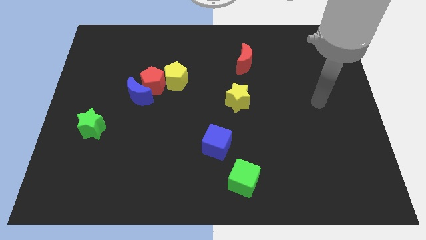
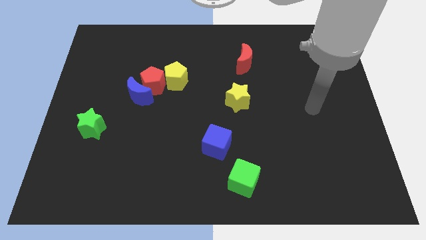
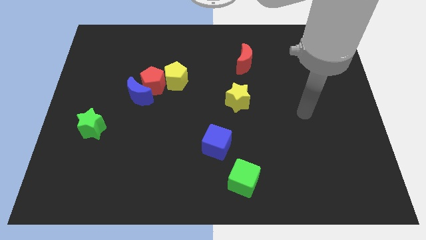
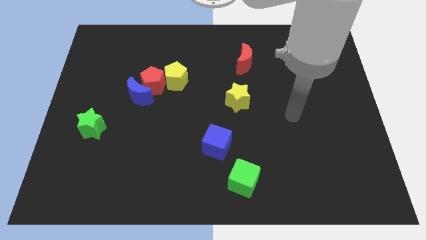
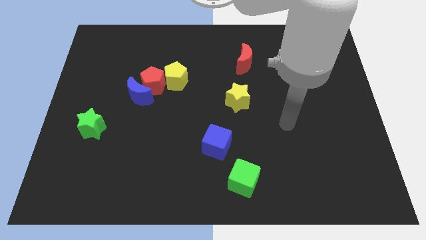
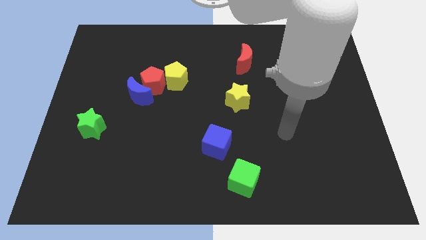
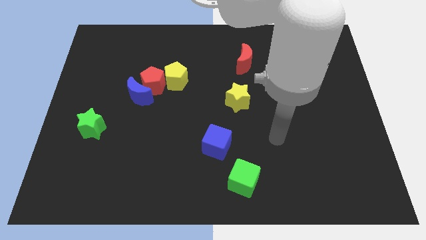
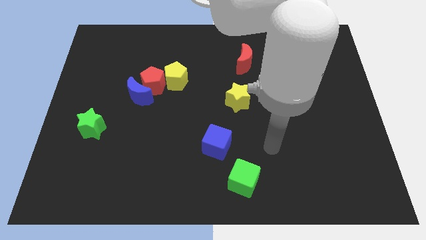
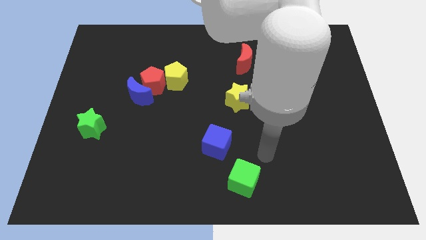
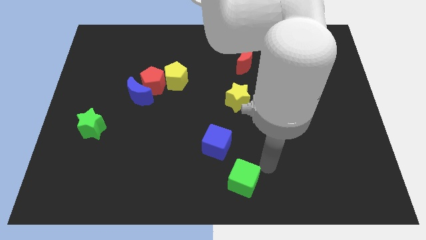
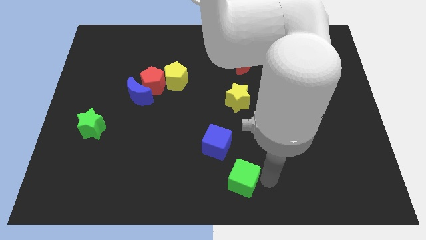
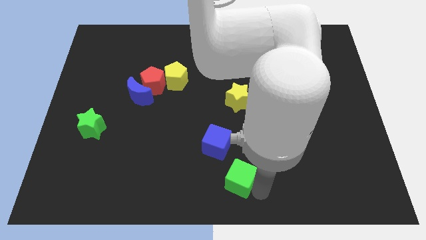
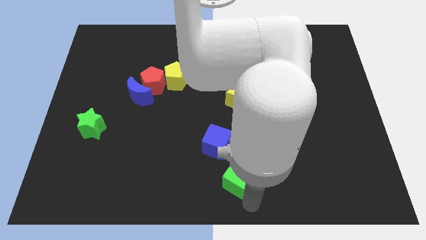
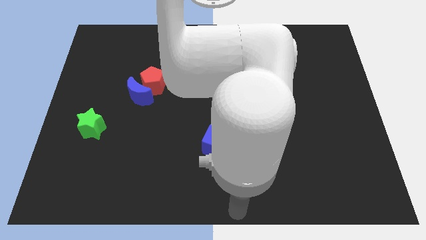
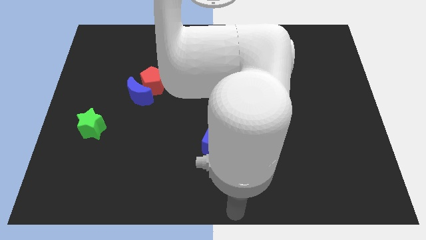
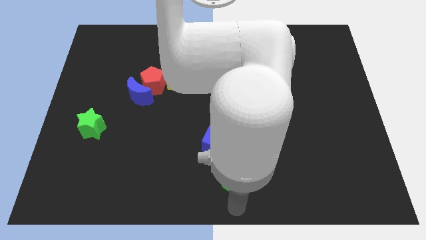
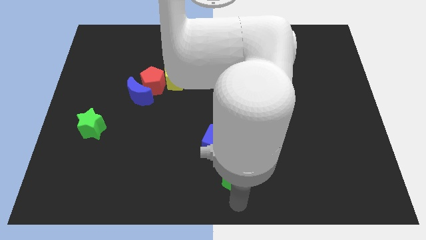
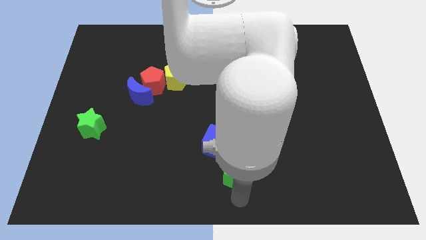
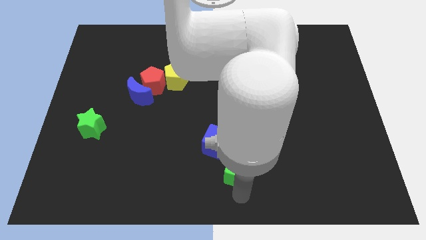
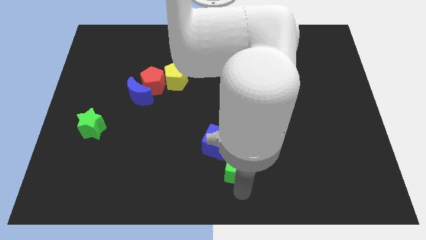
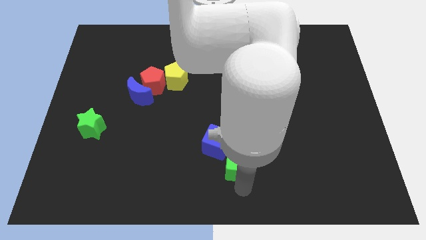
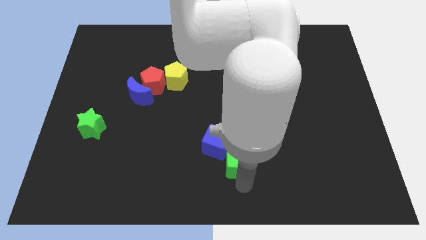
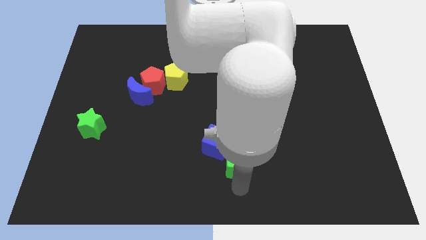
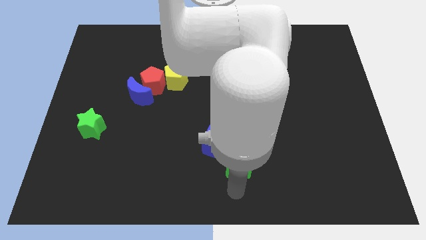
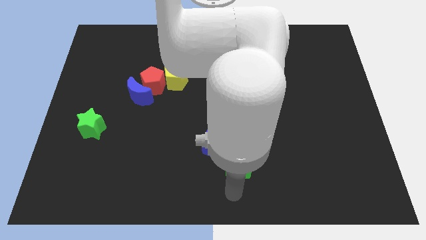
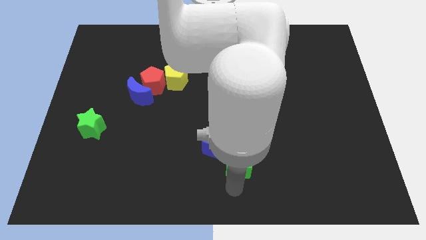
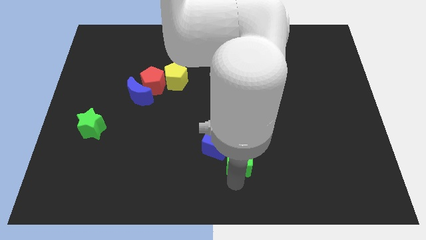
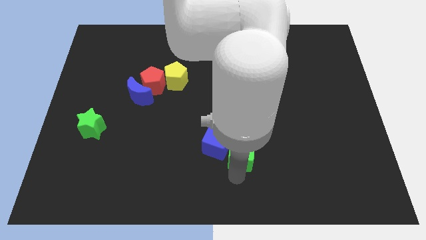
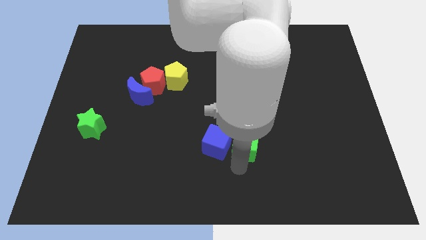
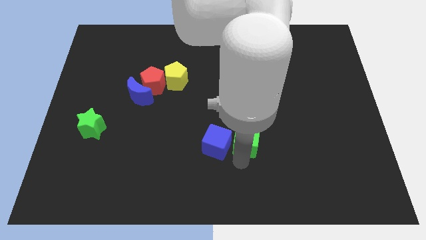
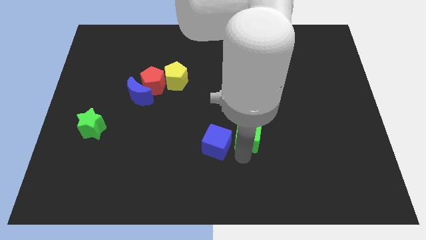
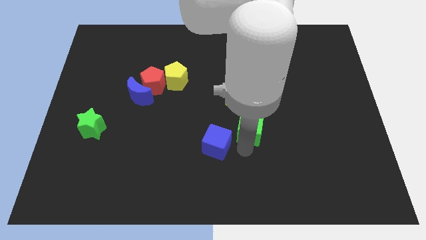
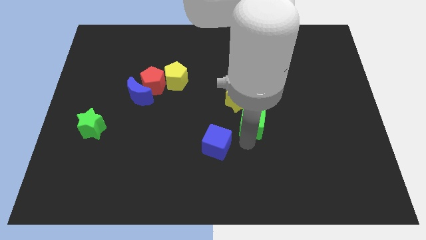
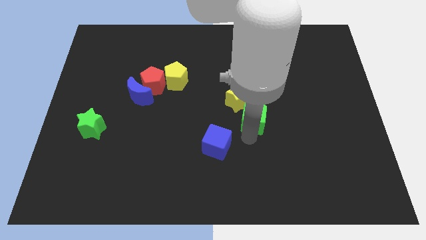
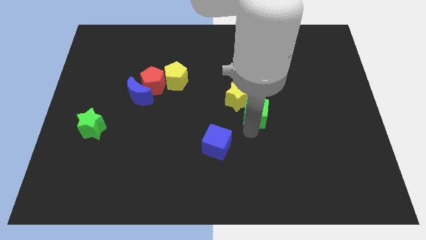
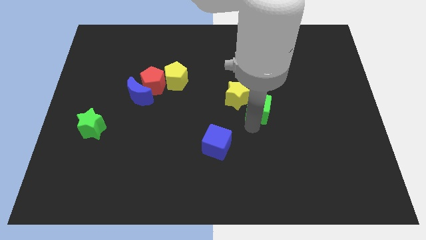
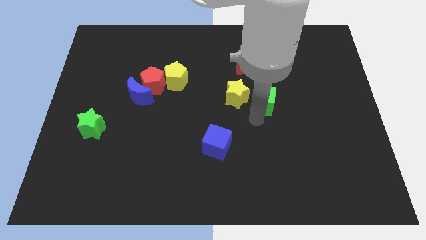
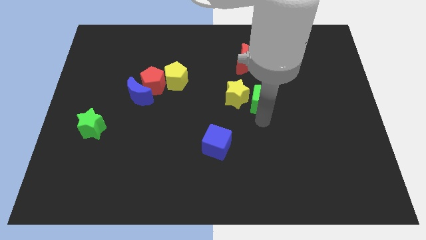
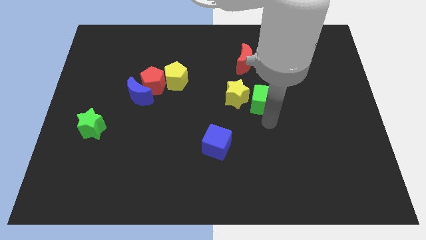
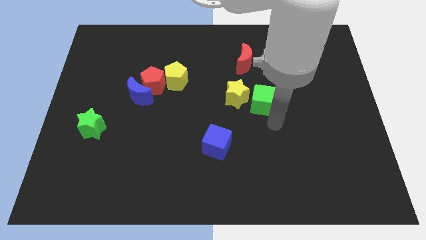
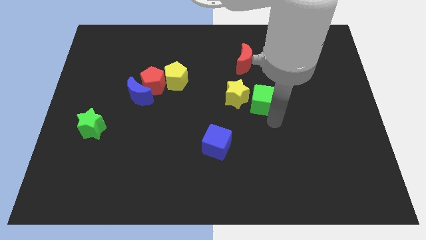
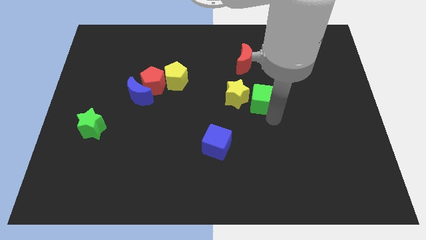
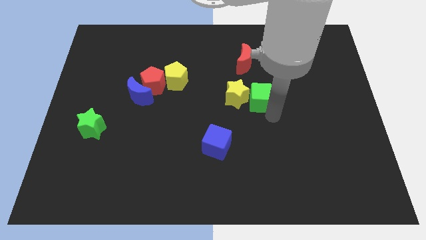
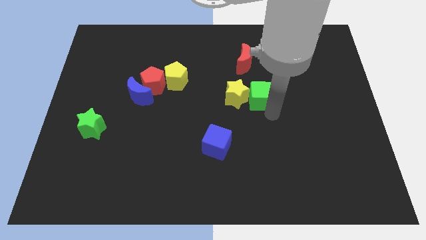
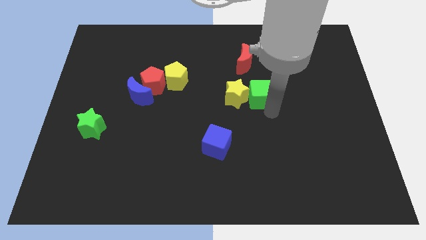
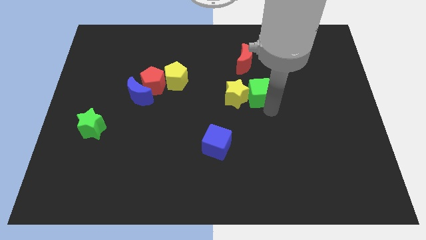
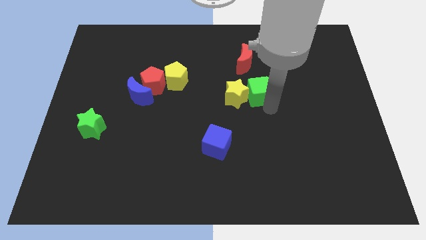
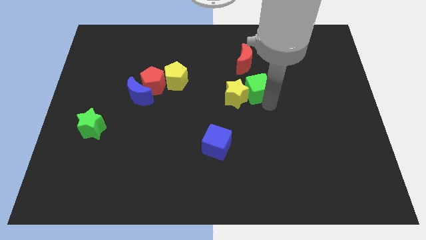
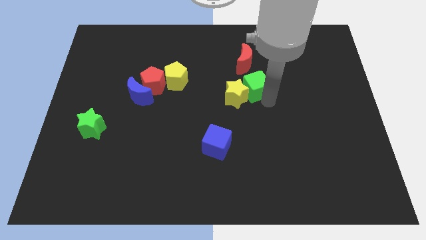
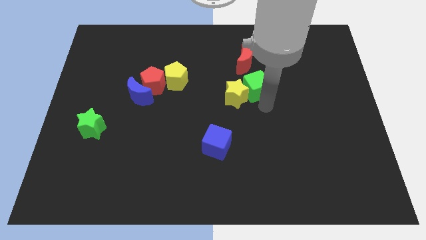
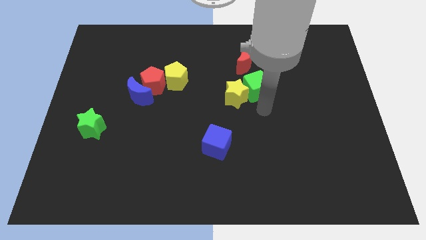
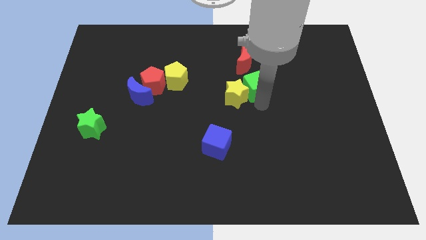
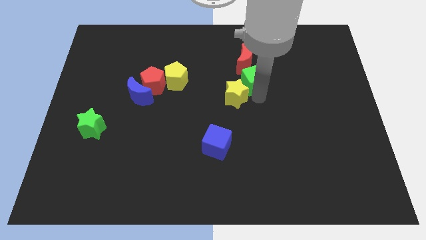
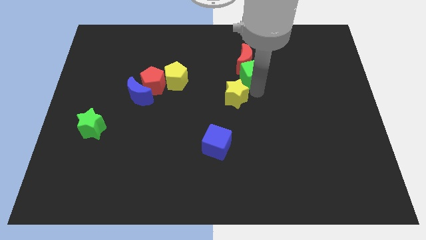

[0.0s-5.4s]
move the green cube close to the red moon

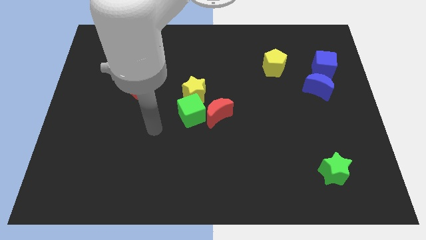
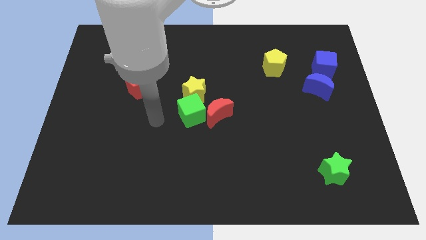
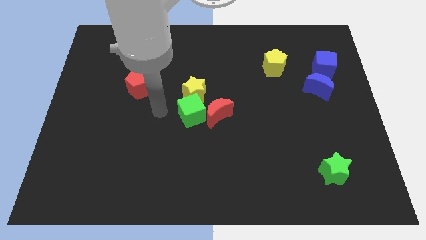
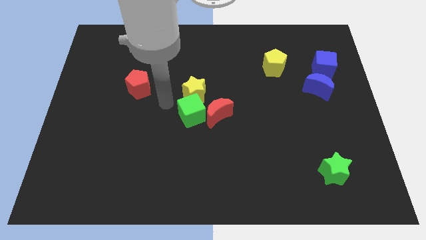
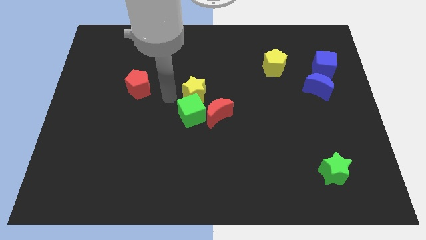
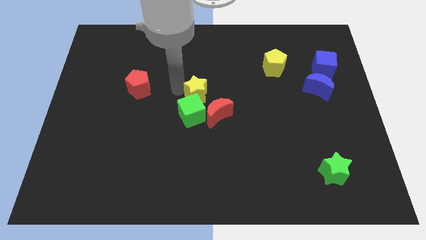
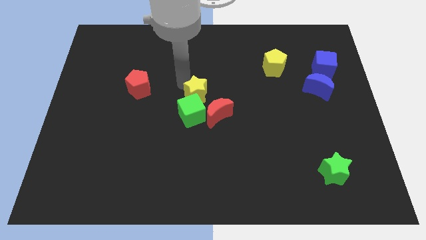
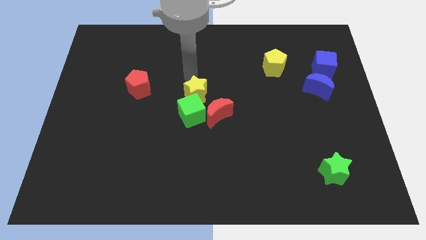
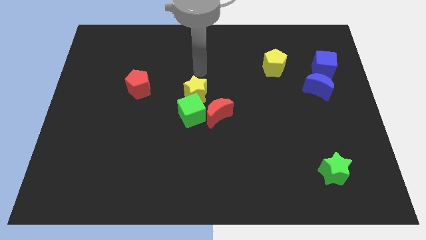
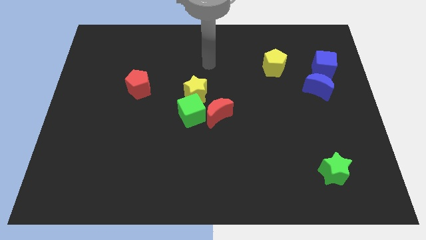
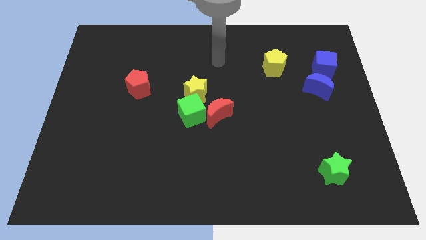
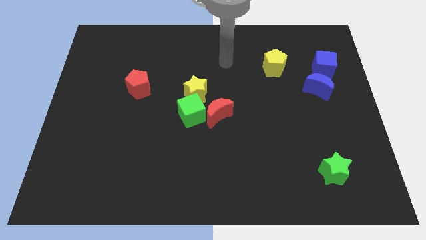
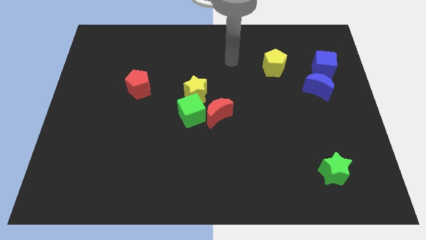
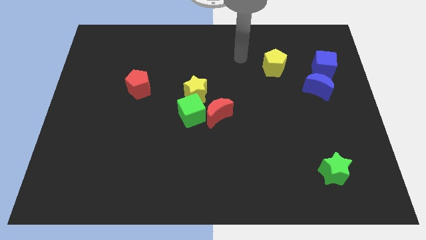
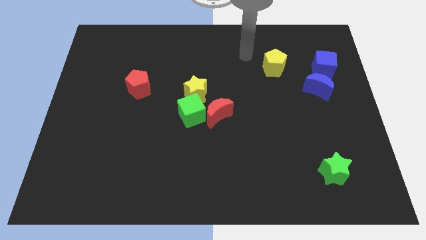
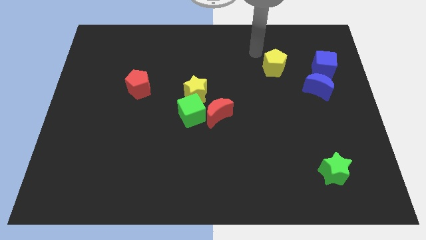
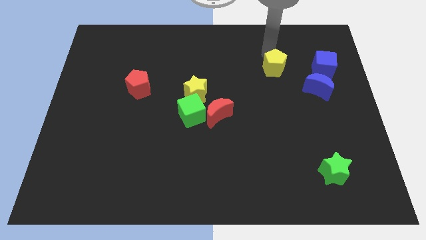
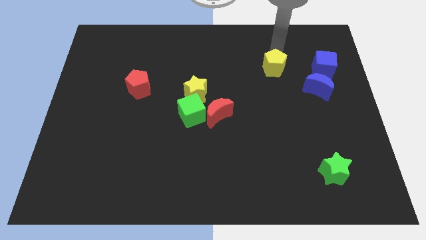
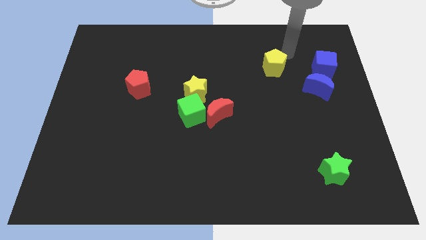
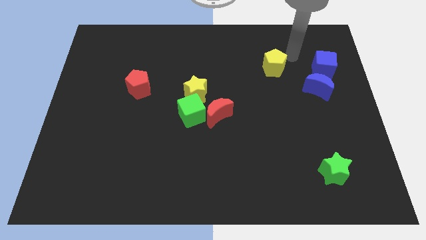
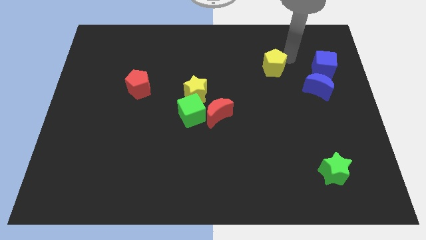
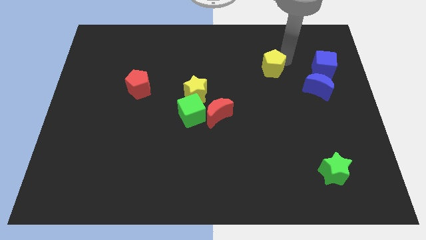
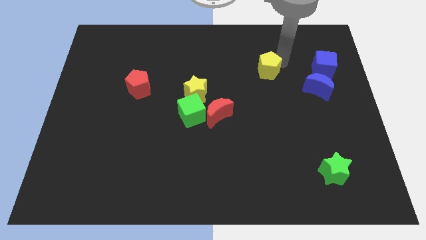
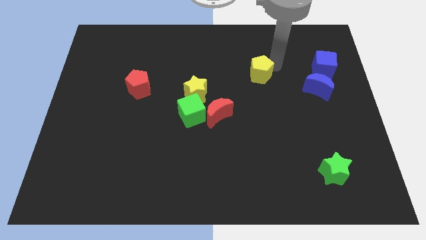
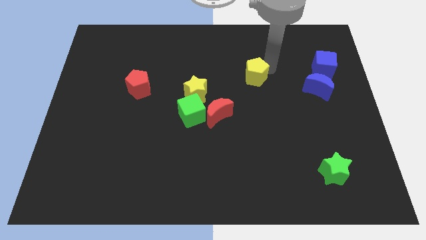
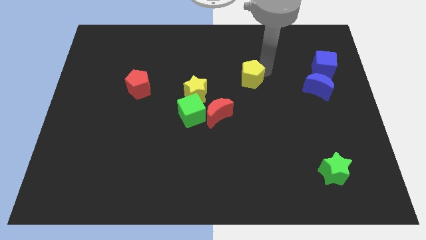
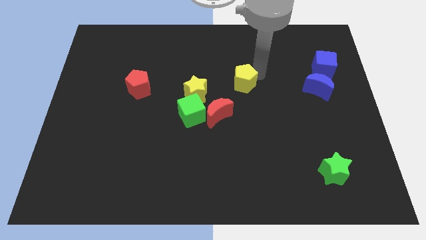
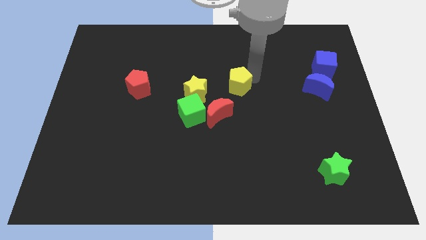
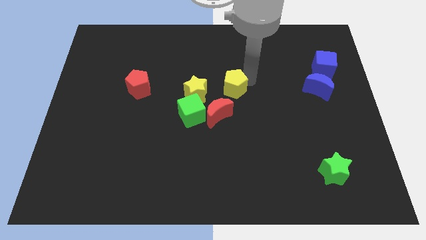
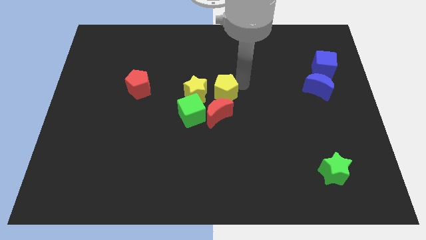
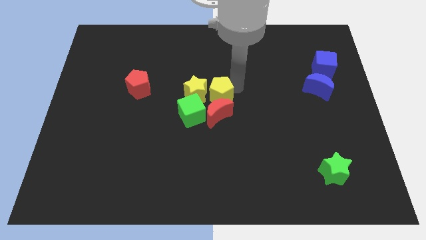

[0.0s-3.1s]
push the yellow pentagon close to the yellow star
